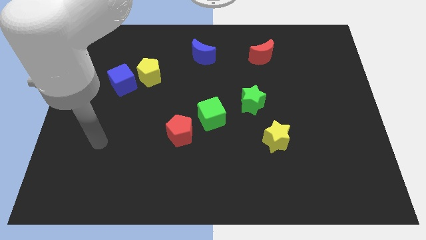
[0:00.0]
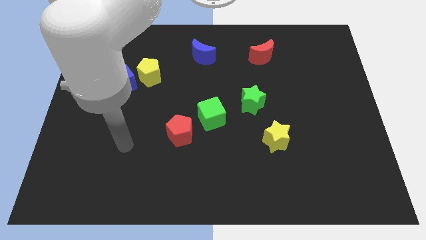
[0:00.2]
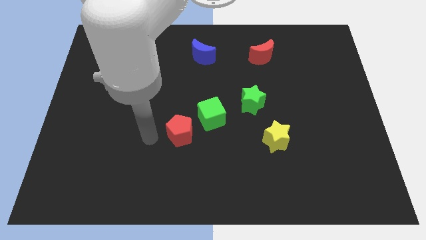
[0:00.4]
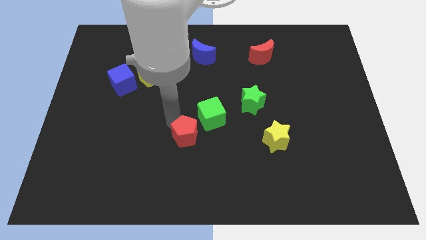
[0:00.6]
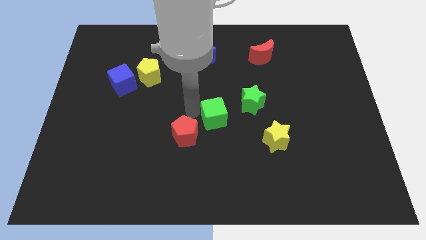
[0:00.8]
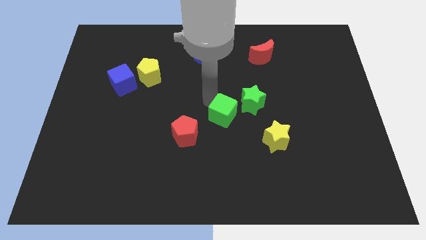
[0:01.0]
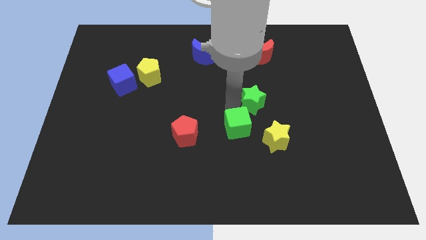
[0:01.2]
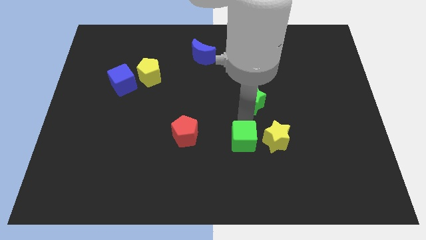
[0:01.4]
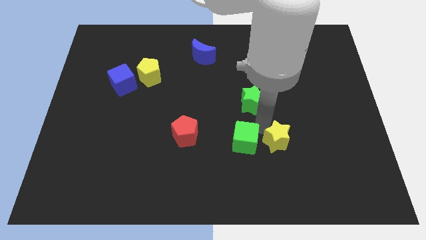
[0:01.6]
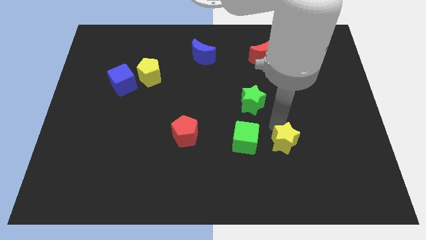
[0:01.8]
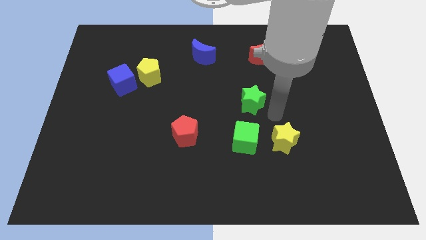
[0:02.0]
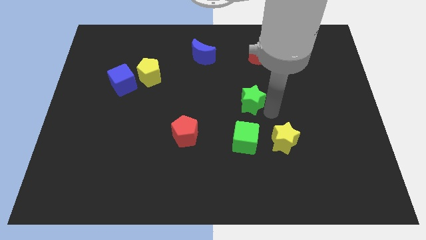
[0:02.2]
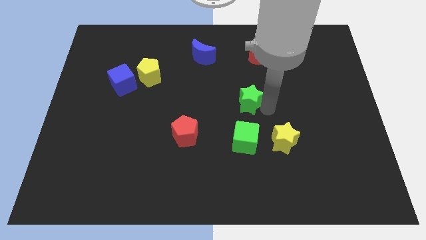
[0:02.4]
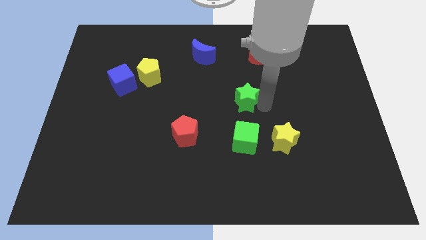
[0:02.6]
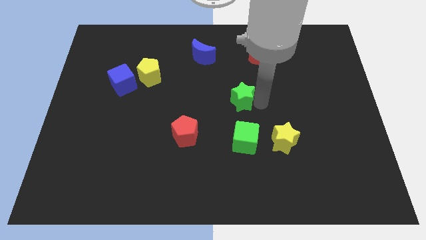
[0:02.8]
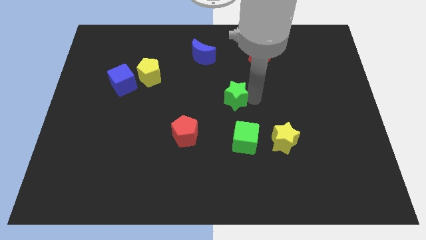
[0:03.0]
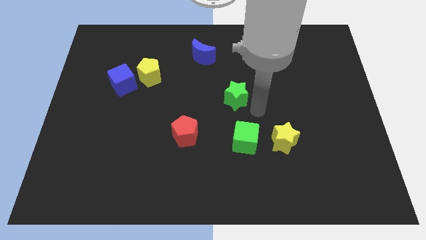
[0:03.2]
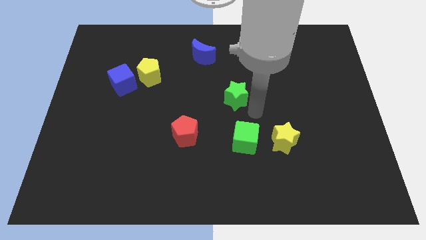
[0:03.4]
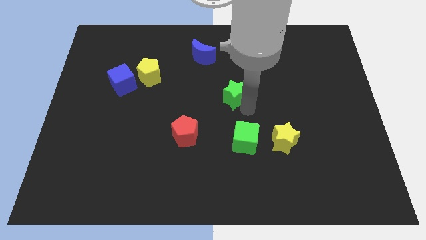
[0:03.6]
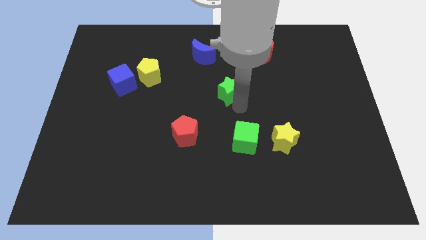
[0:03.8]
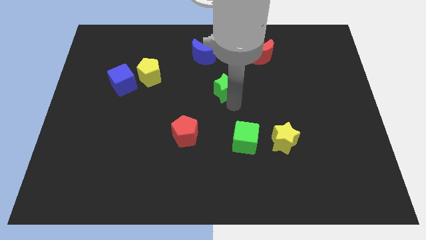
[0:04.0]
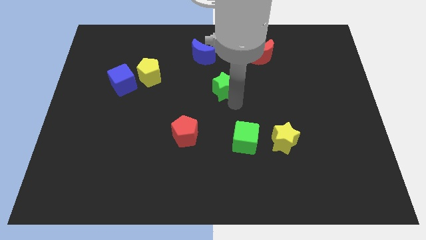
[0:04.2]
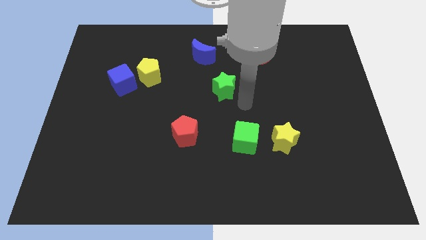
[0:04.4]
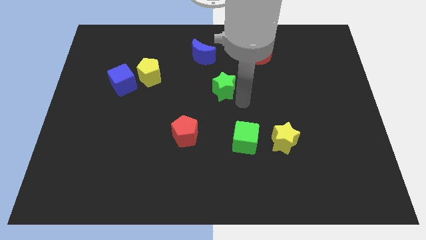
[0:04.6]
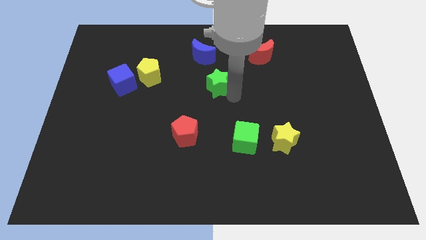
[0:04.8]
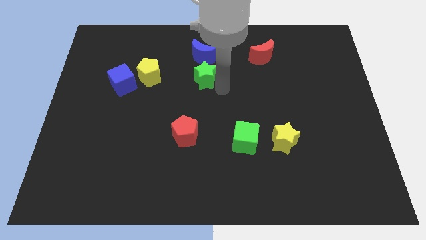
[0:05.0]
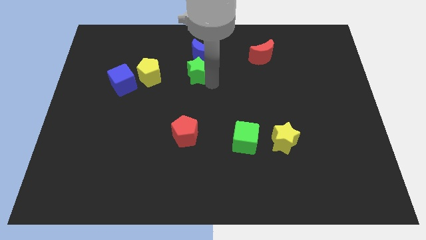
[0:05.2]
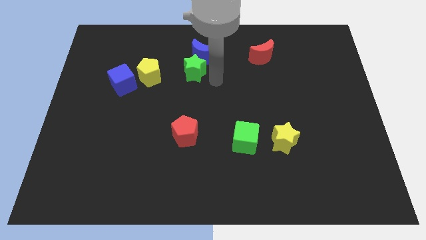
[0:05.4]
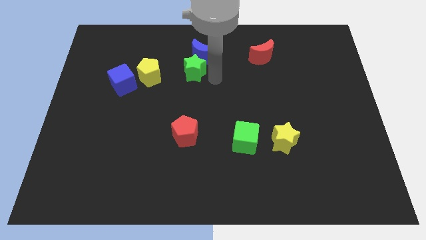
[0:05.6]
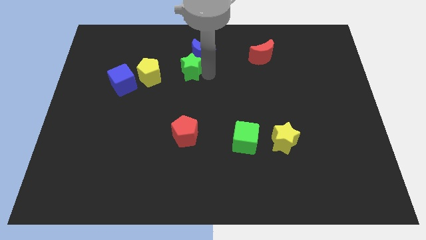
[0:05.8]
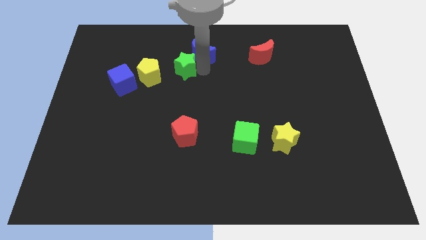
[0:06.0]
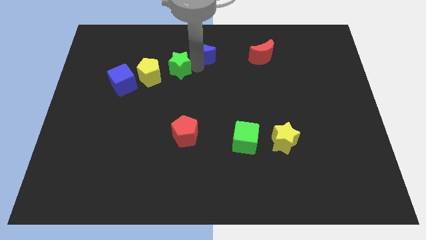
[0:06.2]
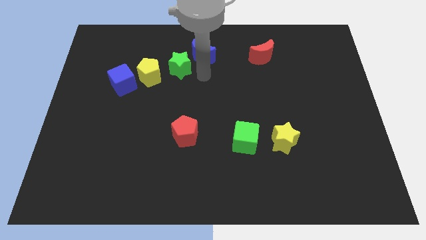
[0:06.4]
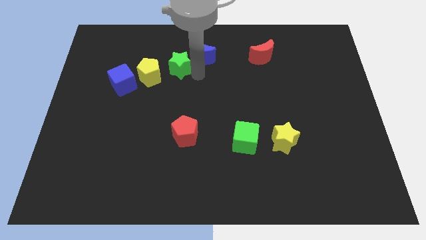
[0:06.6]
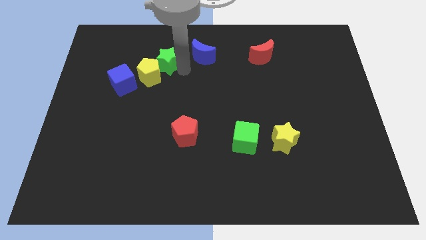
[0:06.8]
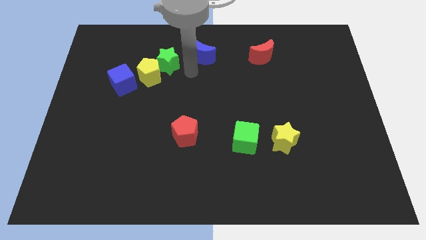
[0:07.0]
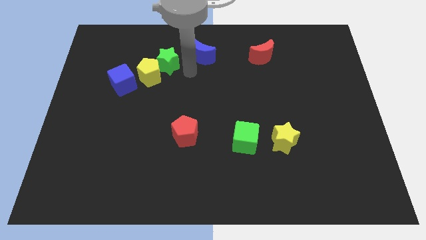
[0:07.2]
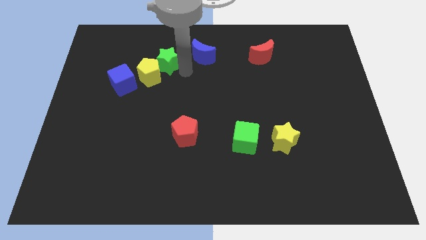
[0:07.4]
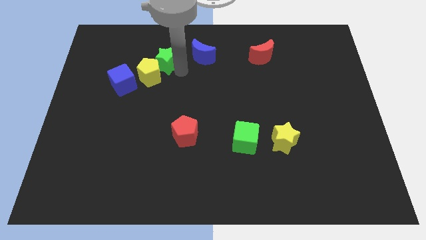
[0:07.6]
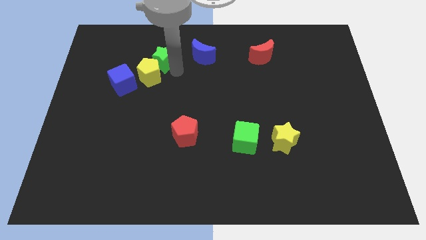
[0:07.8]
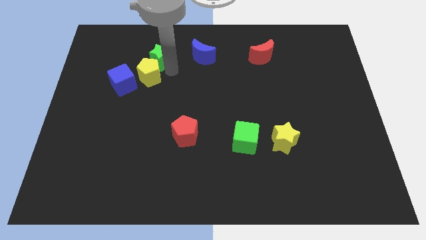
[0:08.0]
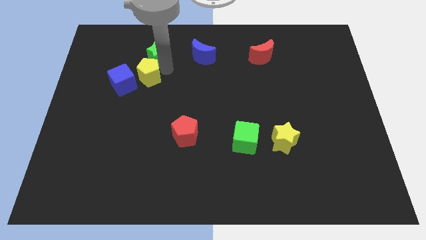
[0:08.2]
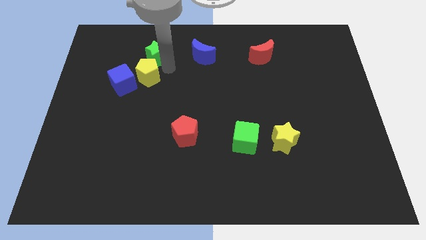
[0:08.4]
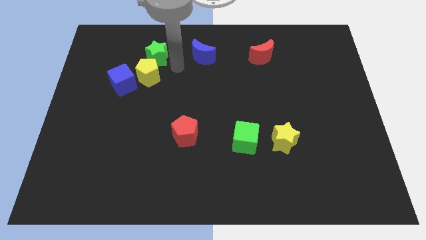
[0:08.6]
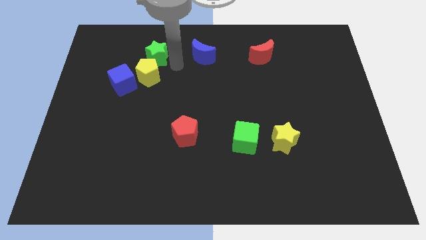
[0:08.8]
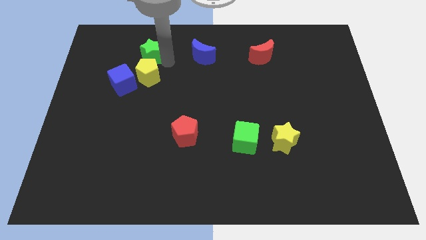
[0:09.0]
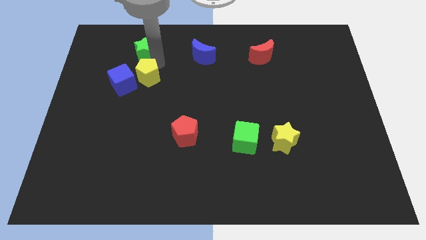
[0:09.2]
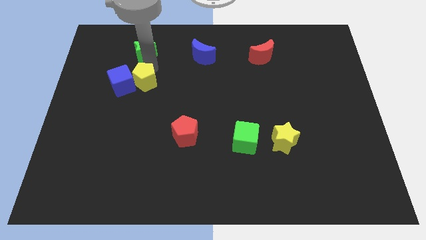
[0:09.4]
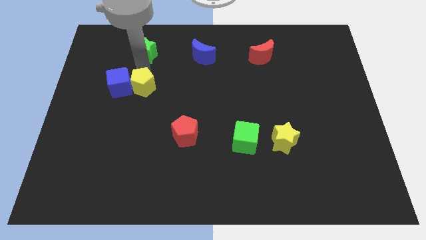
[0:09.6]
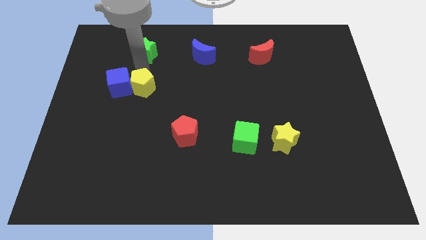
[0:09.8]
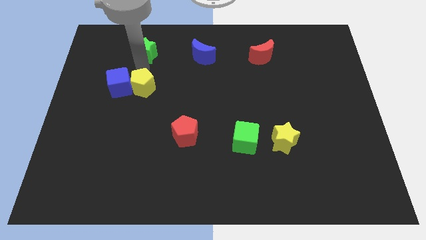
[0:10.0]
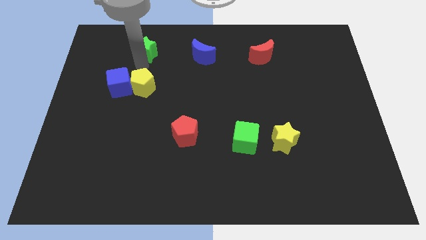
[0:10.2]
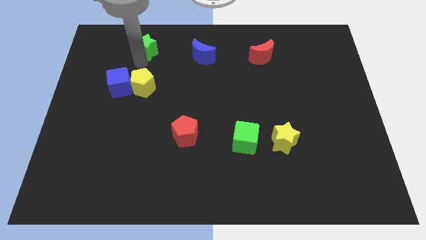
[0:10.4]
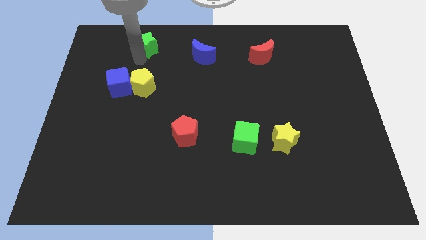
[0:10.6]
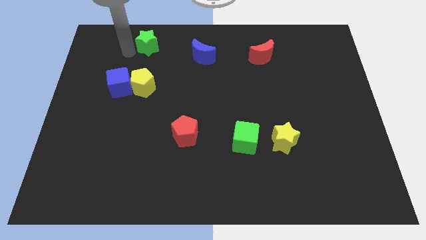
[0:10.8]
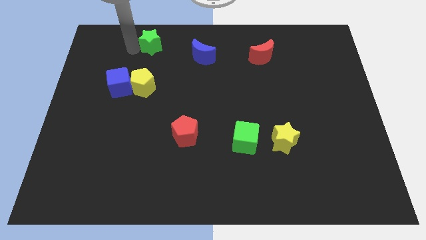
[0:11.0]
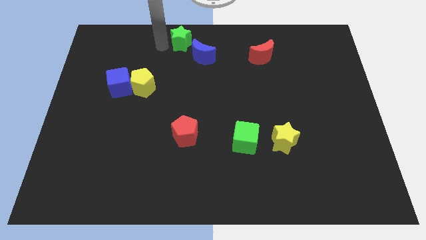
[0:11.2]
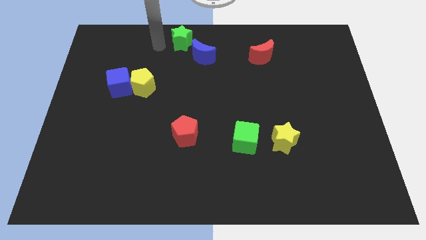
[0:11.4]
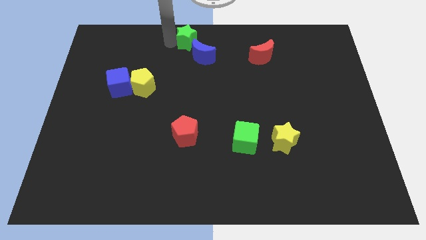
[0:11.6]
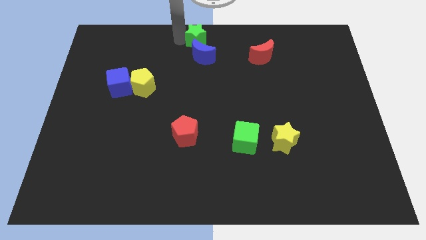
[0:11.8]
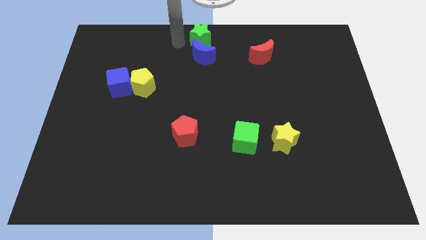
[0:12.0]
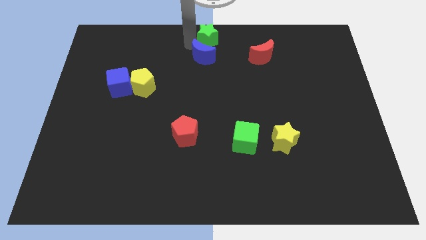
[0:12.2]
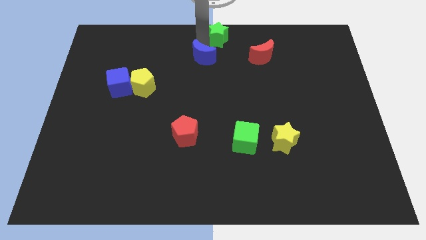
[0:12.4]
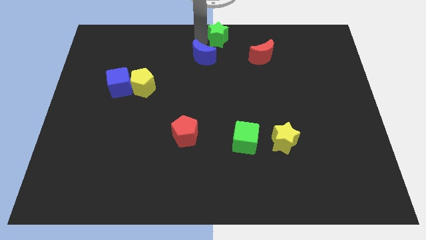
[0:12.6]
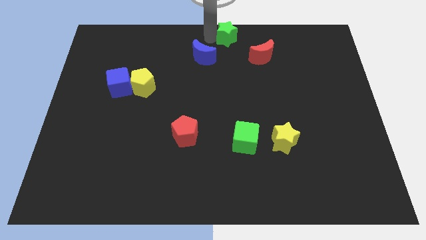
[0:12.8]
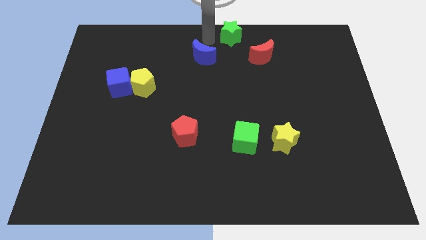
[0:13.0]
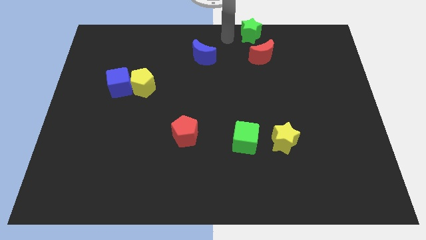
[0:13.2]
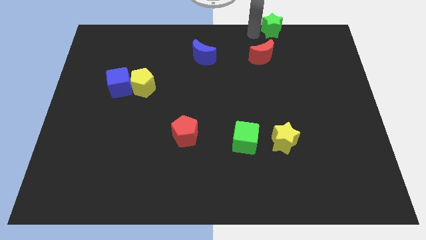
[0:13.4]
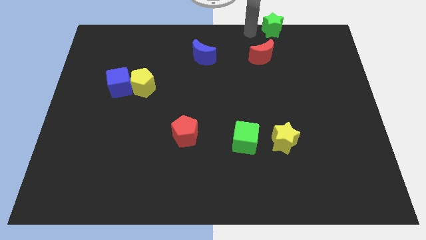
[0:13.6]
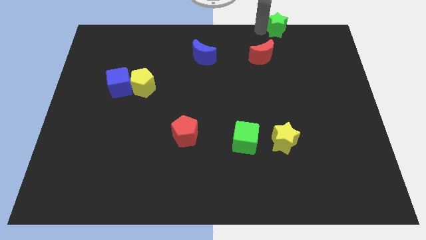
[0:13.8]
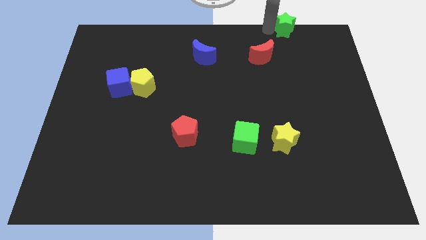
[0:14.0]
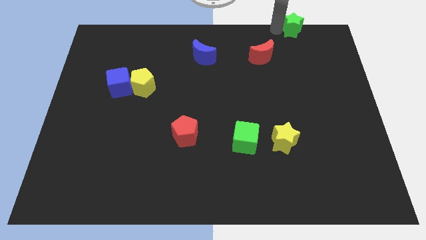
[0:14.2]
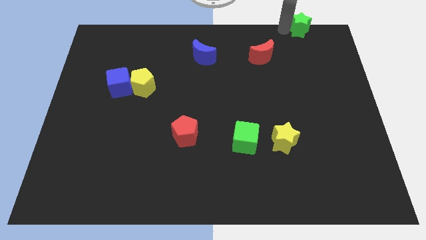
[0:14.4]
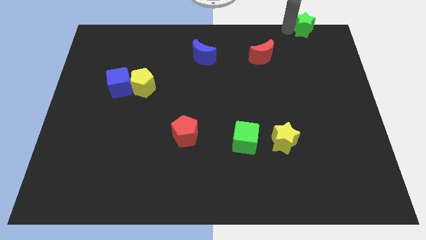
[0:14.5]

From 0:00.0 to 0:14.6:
slide the green star to the top right corner
